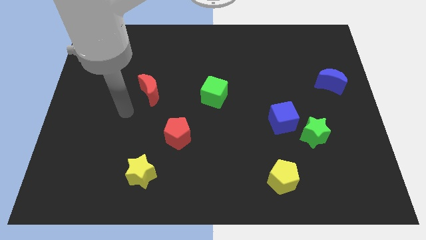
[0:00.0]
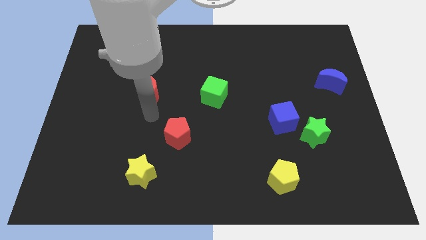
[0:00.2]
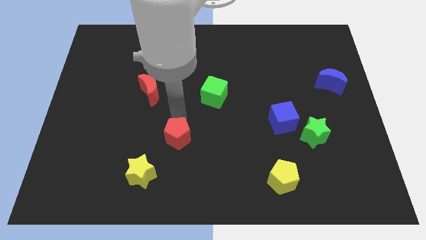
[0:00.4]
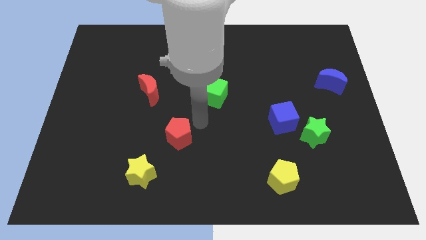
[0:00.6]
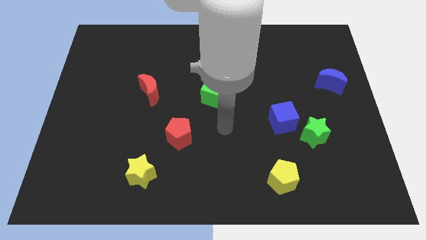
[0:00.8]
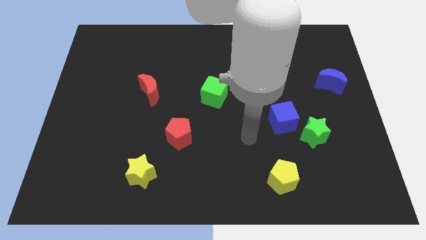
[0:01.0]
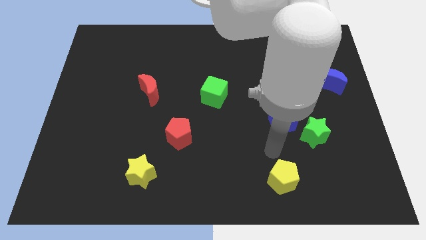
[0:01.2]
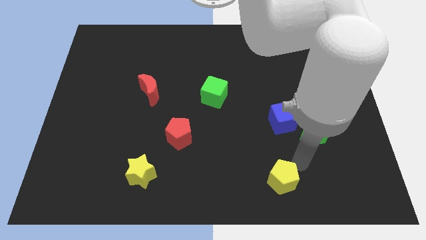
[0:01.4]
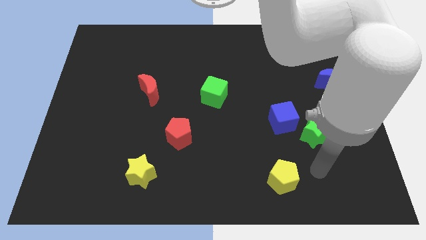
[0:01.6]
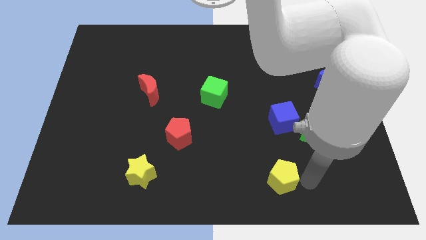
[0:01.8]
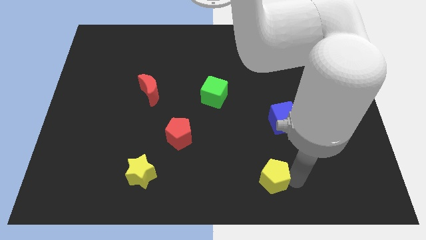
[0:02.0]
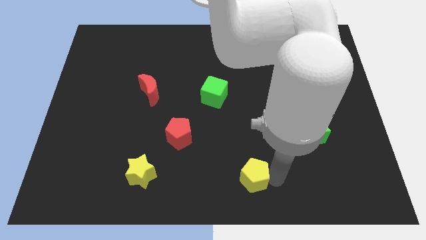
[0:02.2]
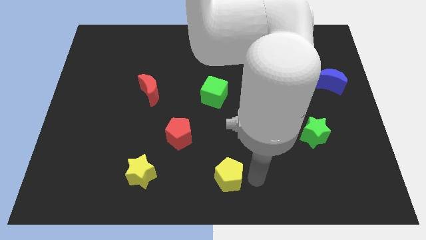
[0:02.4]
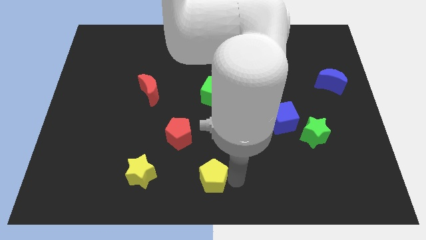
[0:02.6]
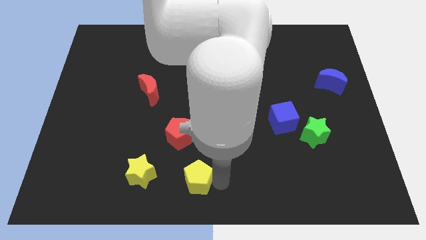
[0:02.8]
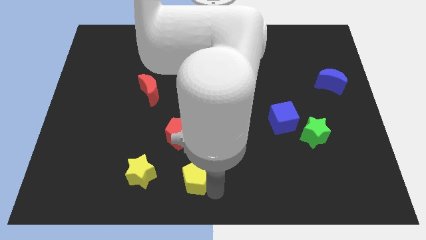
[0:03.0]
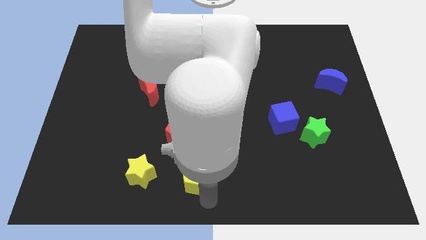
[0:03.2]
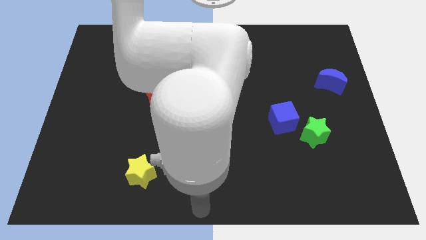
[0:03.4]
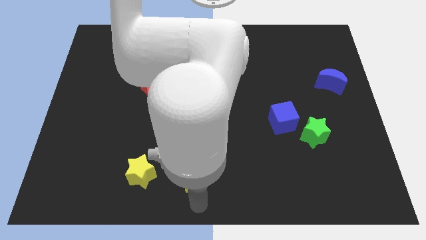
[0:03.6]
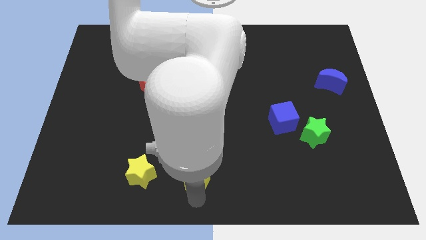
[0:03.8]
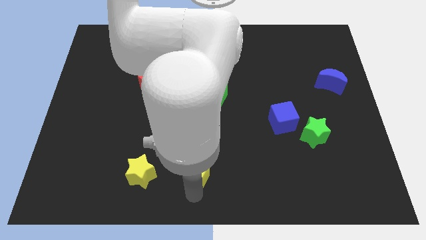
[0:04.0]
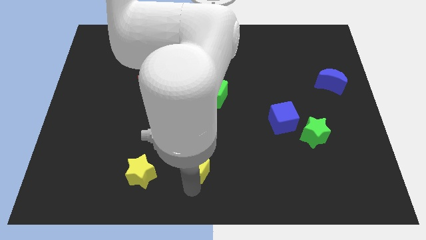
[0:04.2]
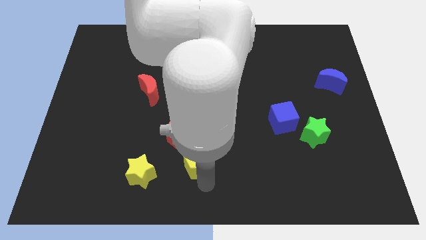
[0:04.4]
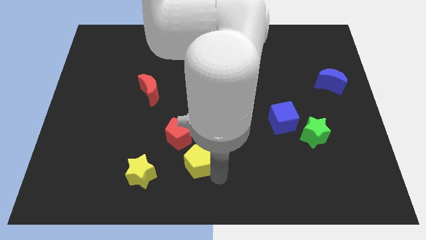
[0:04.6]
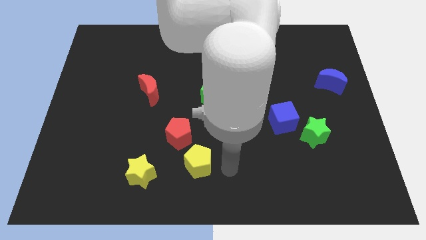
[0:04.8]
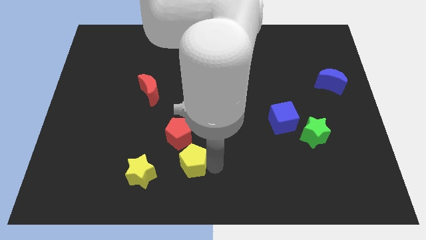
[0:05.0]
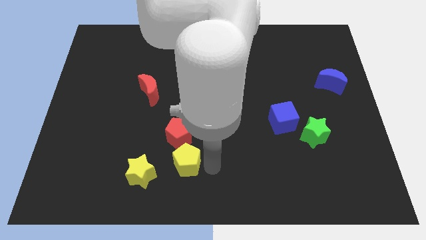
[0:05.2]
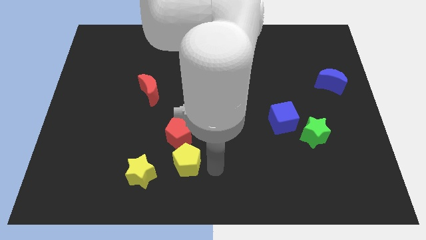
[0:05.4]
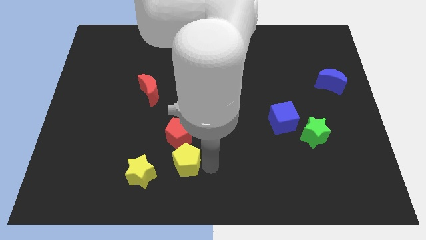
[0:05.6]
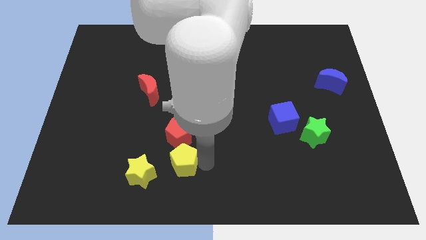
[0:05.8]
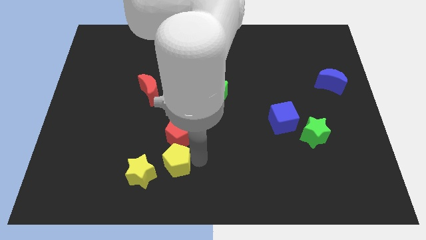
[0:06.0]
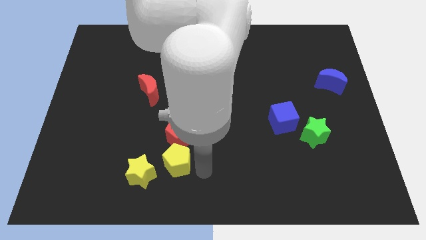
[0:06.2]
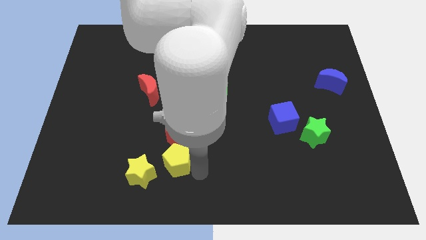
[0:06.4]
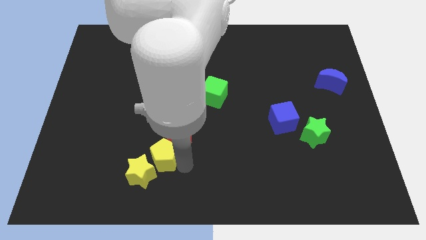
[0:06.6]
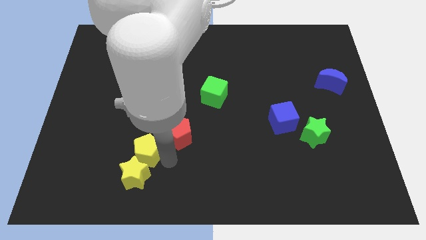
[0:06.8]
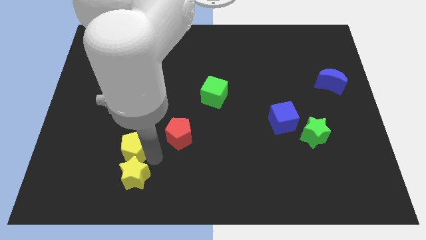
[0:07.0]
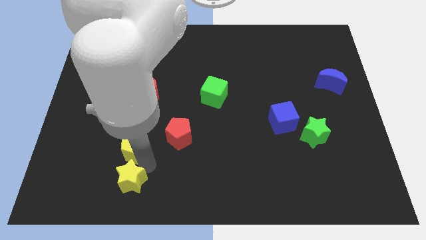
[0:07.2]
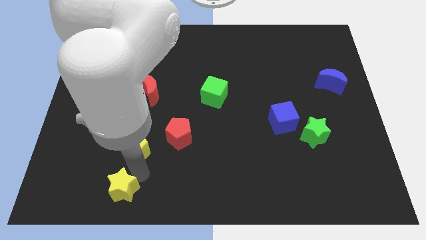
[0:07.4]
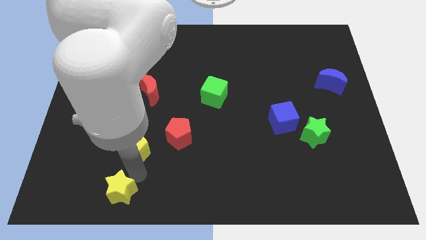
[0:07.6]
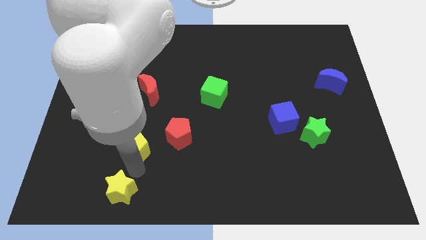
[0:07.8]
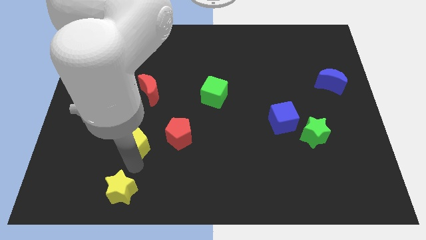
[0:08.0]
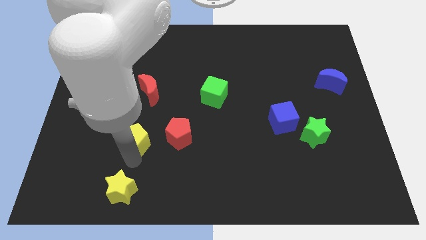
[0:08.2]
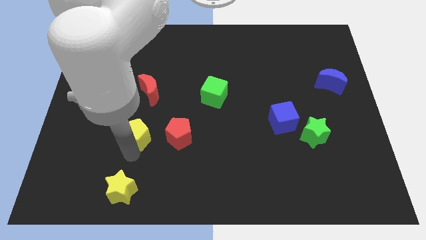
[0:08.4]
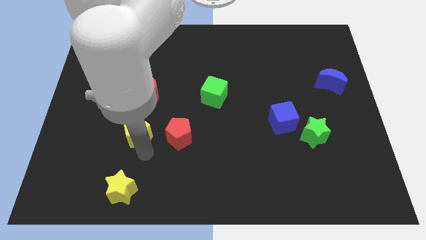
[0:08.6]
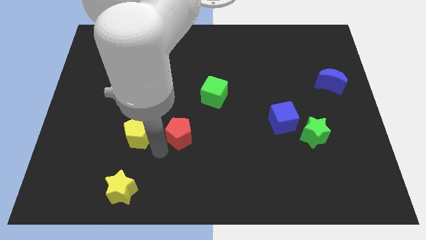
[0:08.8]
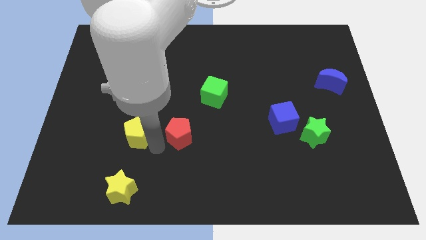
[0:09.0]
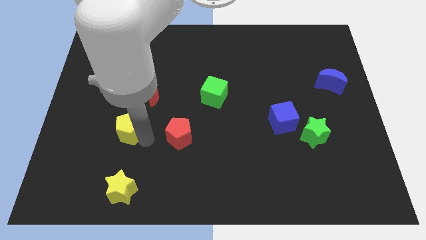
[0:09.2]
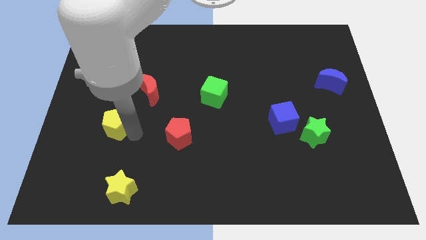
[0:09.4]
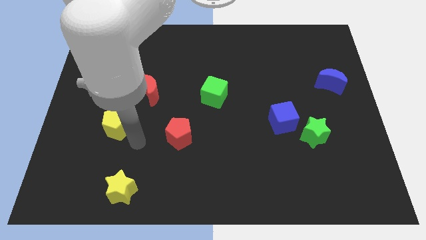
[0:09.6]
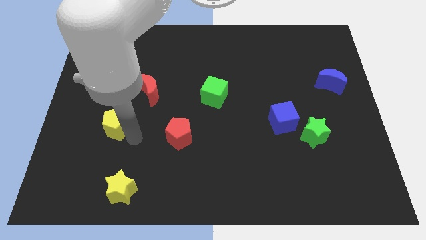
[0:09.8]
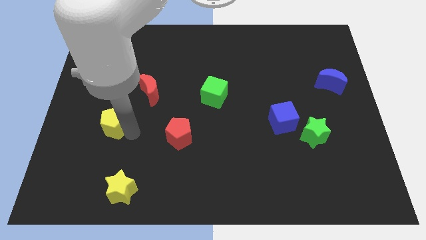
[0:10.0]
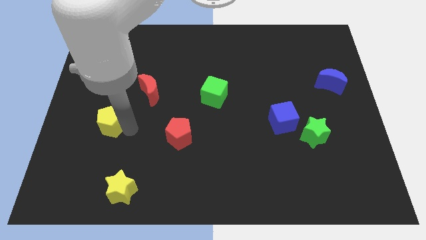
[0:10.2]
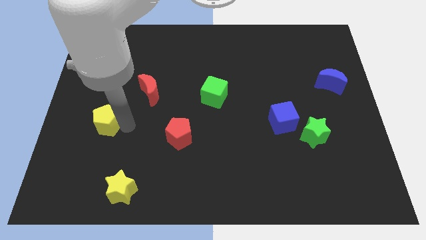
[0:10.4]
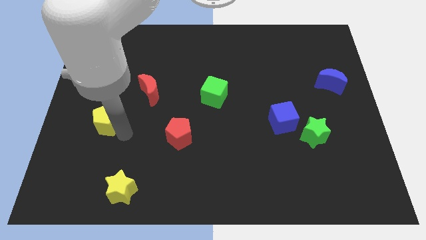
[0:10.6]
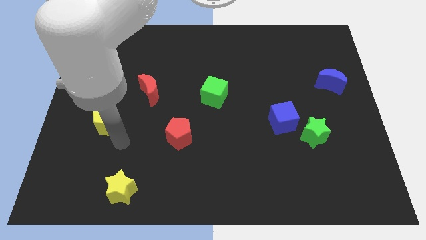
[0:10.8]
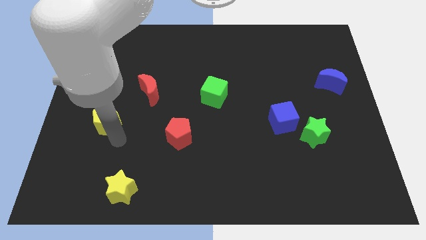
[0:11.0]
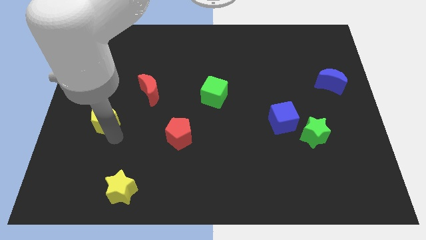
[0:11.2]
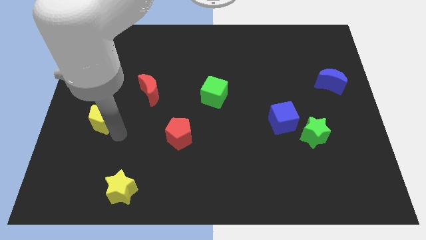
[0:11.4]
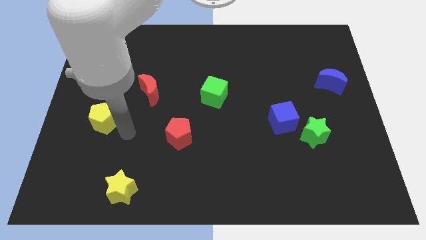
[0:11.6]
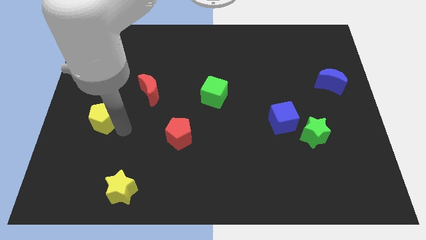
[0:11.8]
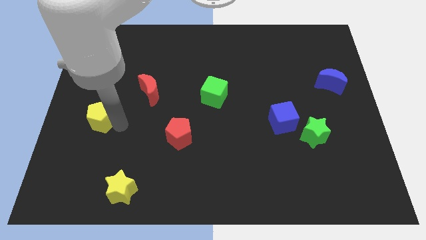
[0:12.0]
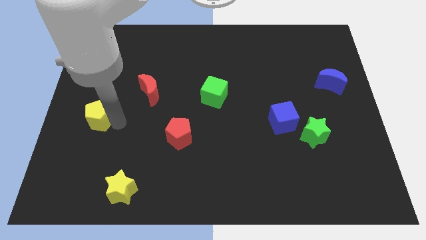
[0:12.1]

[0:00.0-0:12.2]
move the yellow pentagon to the center left
